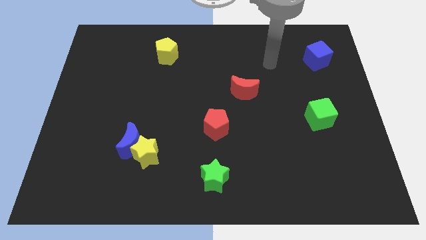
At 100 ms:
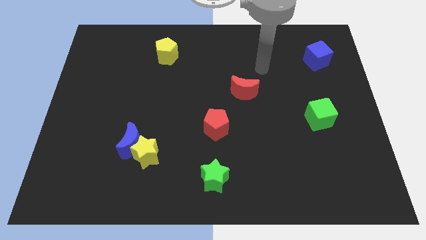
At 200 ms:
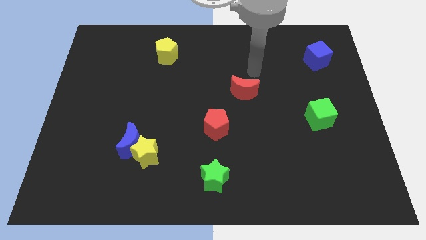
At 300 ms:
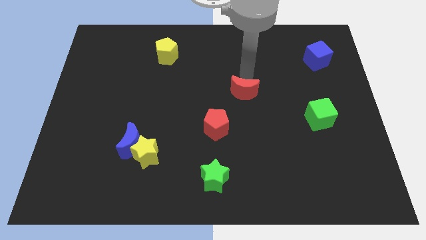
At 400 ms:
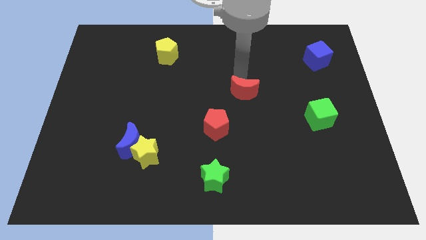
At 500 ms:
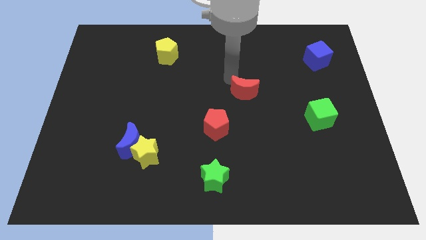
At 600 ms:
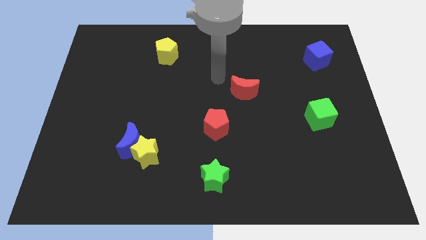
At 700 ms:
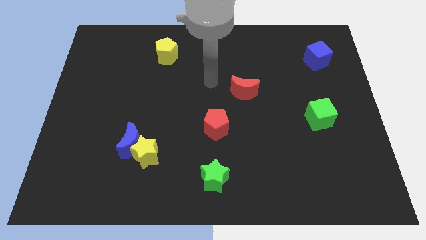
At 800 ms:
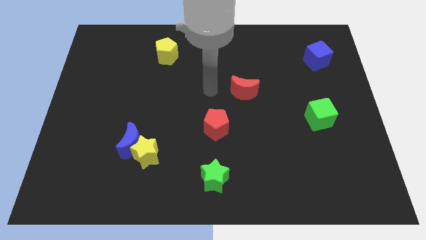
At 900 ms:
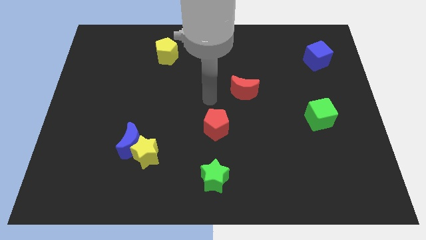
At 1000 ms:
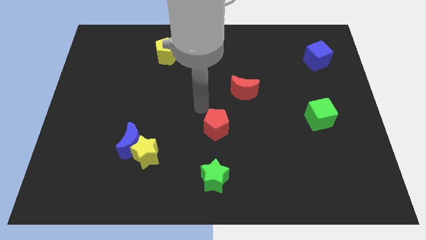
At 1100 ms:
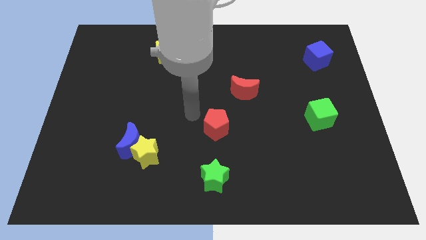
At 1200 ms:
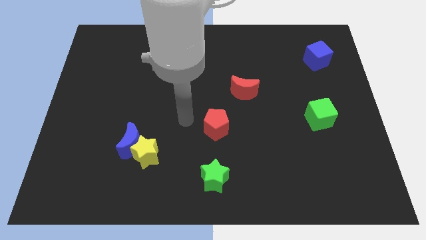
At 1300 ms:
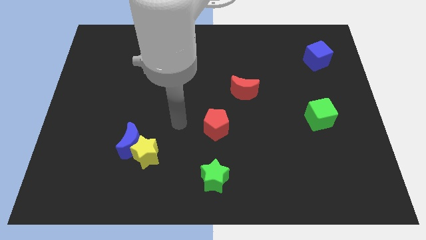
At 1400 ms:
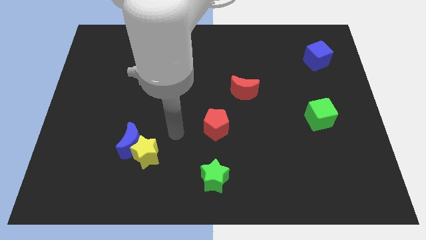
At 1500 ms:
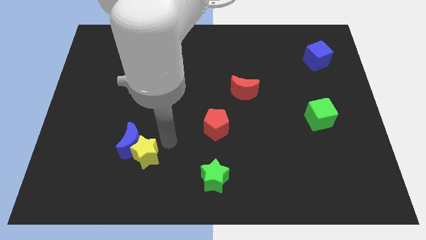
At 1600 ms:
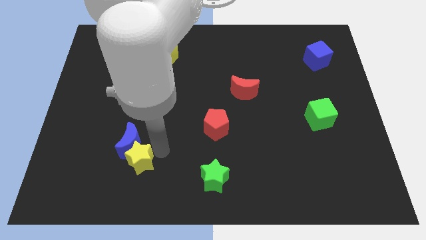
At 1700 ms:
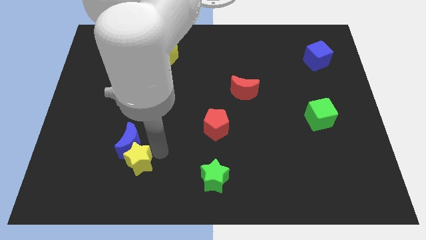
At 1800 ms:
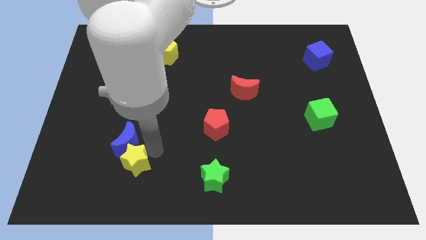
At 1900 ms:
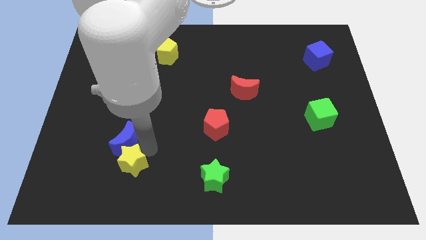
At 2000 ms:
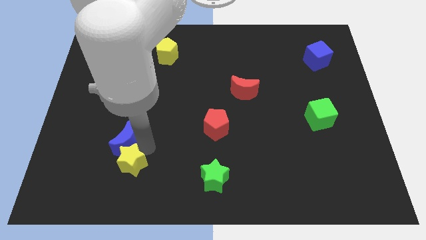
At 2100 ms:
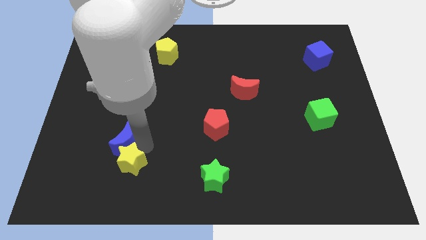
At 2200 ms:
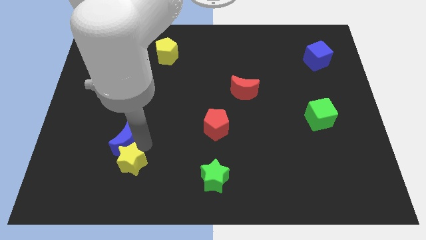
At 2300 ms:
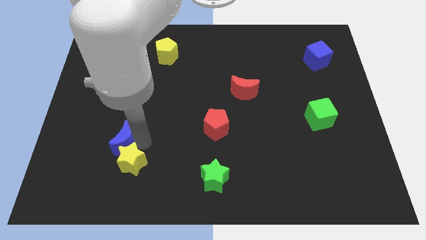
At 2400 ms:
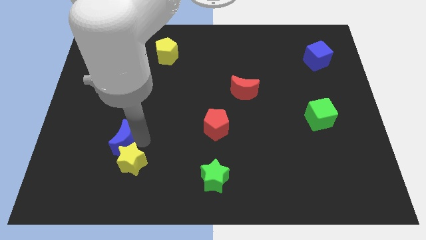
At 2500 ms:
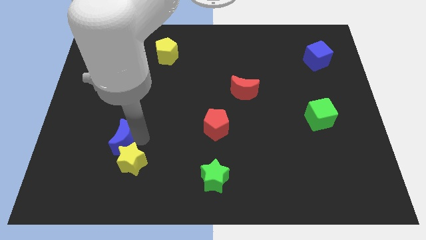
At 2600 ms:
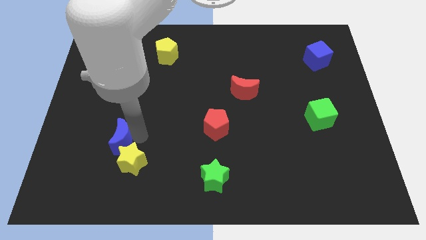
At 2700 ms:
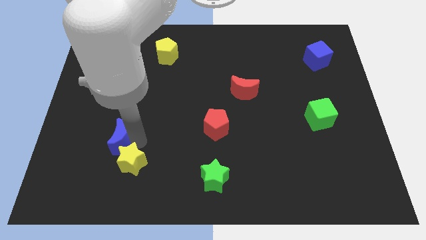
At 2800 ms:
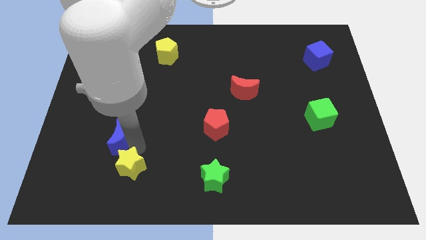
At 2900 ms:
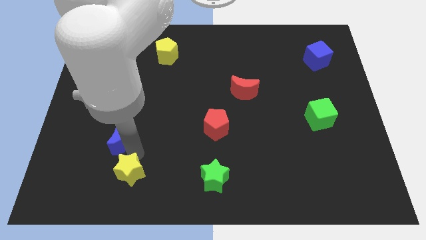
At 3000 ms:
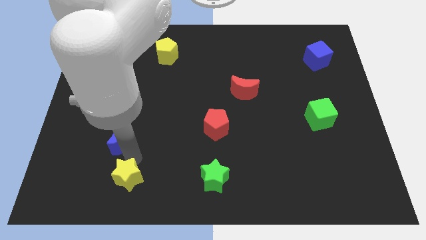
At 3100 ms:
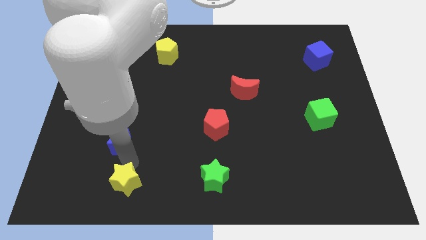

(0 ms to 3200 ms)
move the blue moon away from the yellow star

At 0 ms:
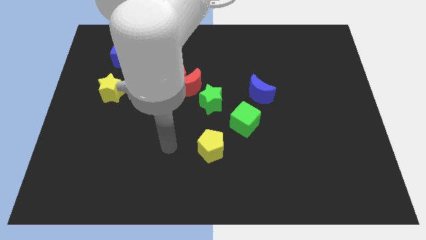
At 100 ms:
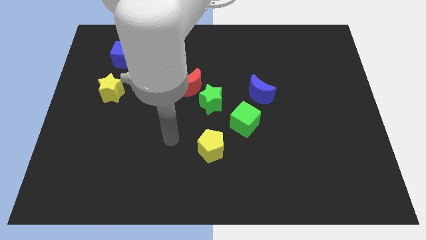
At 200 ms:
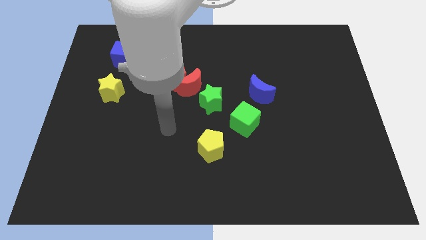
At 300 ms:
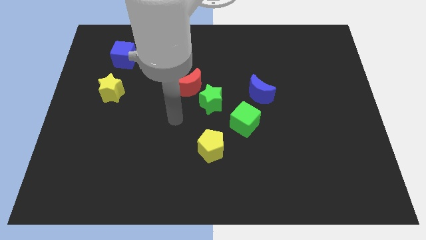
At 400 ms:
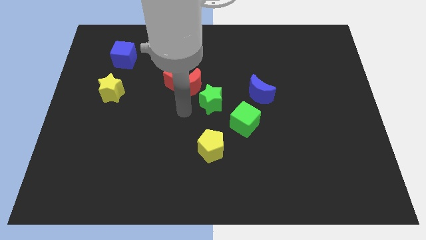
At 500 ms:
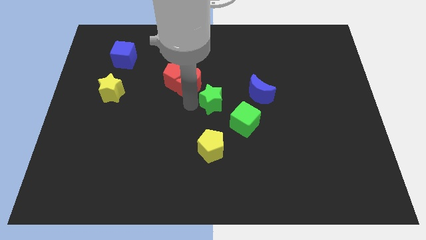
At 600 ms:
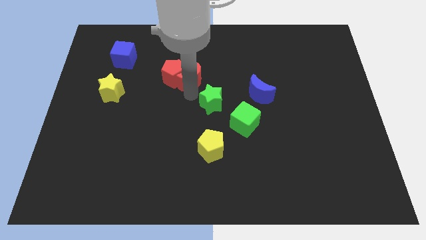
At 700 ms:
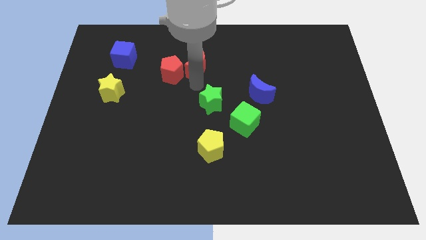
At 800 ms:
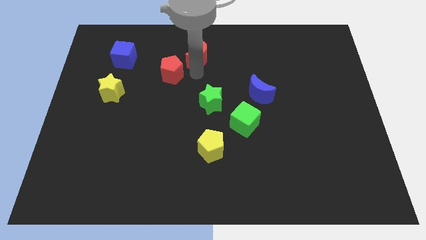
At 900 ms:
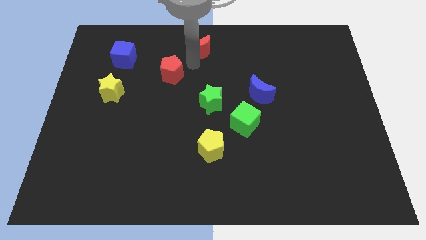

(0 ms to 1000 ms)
pull the red pentagon apart from the red moon

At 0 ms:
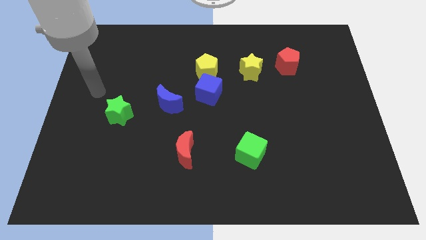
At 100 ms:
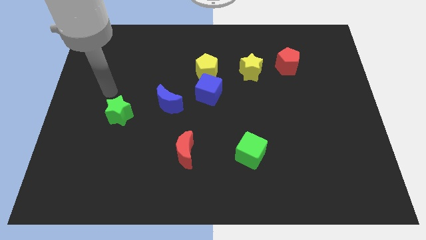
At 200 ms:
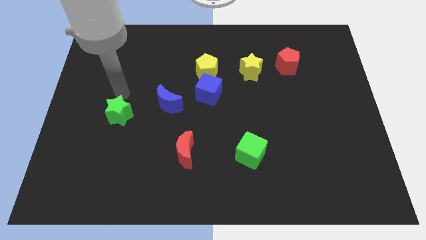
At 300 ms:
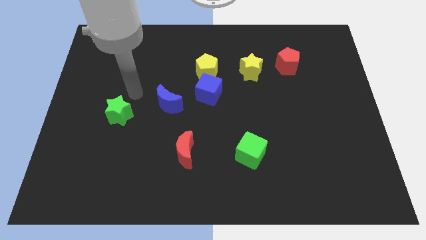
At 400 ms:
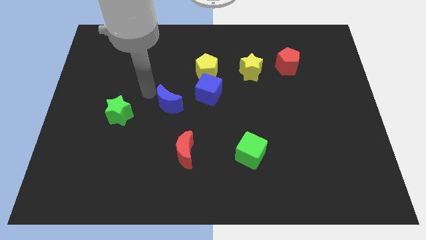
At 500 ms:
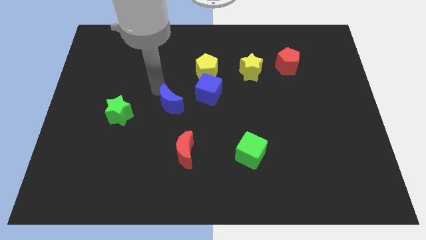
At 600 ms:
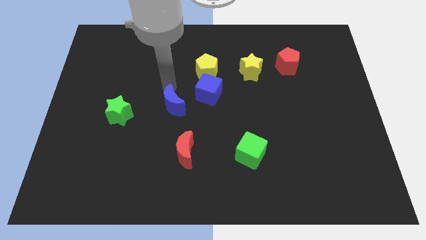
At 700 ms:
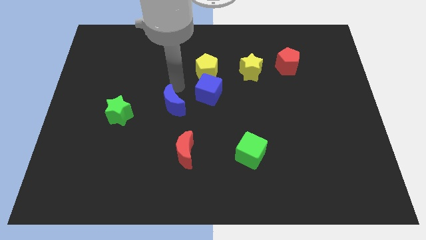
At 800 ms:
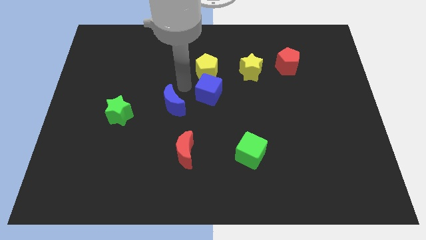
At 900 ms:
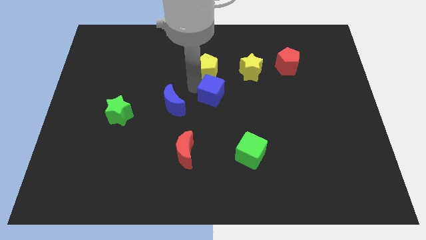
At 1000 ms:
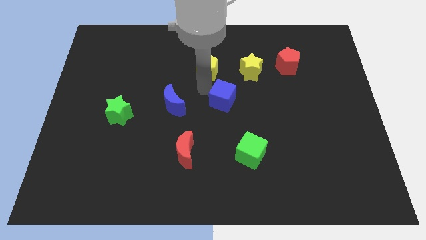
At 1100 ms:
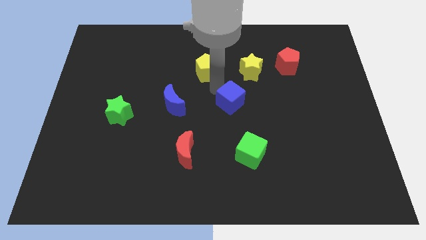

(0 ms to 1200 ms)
separate the yellow pentagon from the blue cube

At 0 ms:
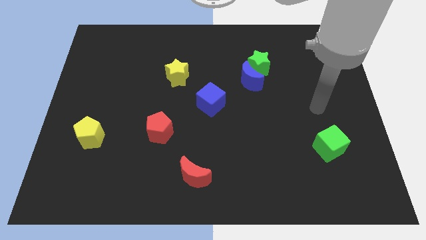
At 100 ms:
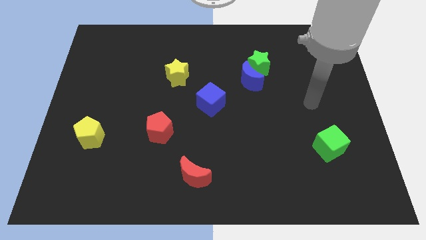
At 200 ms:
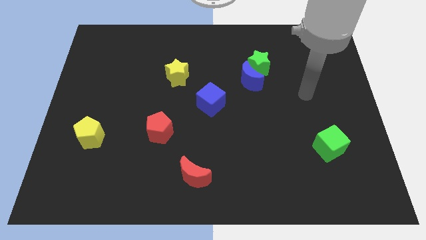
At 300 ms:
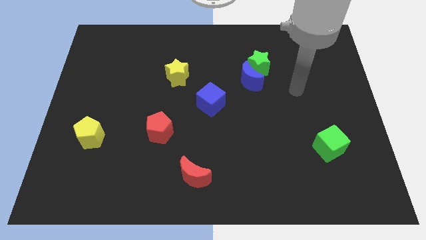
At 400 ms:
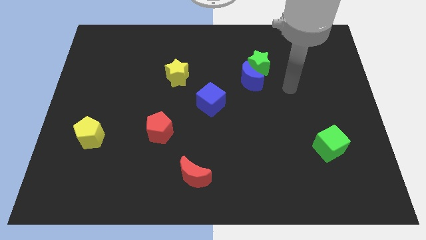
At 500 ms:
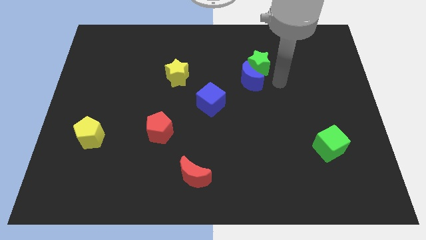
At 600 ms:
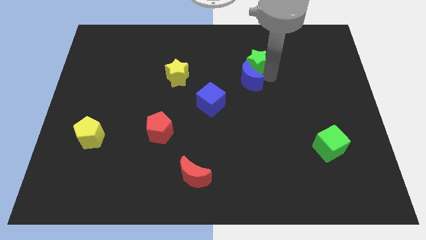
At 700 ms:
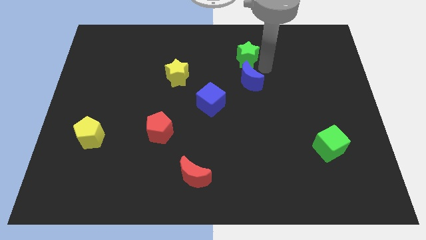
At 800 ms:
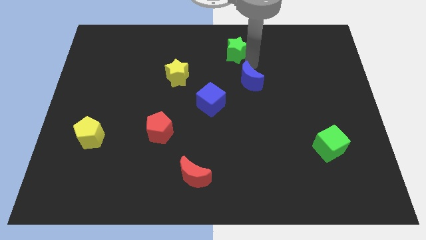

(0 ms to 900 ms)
pull the blue moon apart from the green star

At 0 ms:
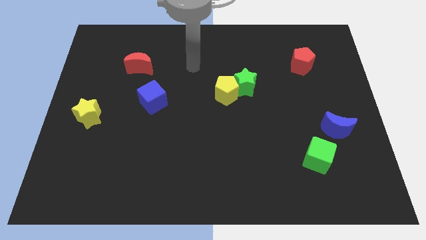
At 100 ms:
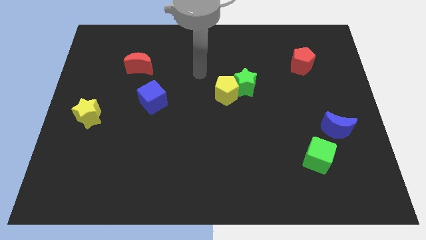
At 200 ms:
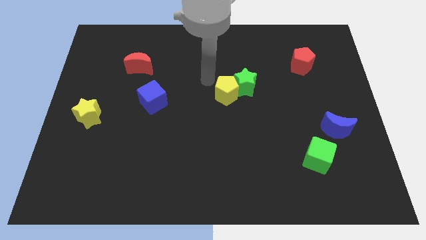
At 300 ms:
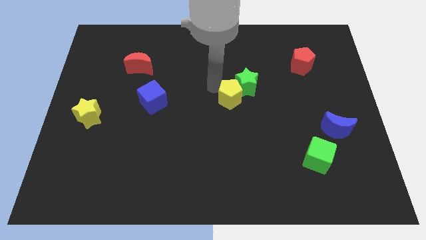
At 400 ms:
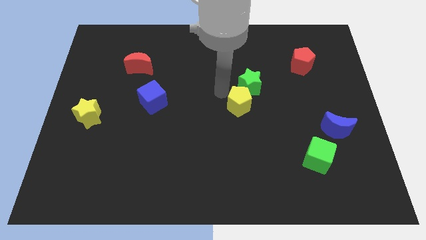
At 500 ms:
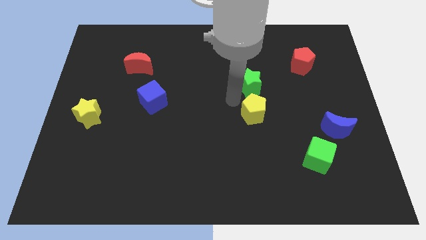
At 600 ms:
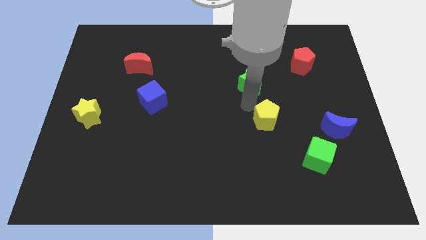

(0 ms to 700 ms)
move the green star away from the yellow pentagon

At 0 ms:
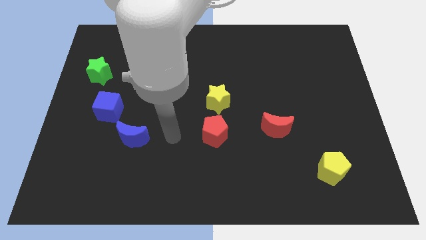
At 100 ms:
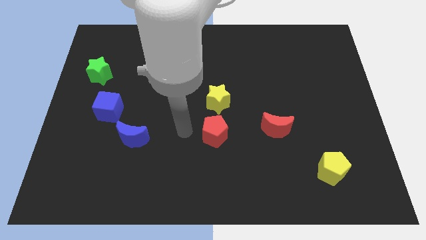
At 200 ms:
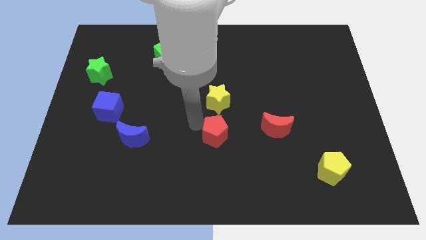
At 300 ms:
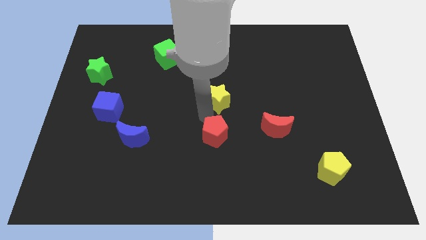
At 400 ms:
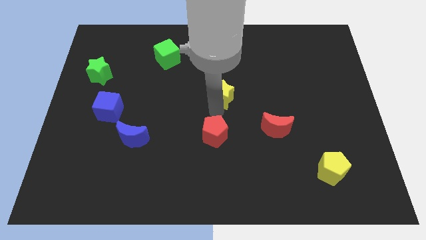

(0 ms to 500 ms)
move the red pentagon away from the yellow star

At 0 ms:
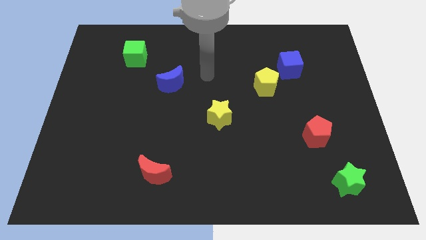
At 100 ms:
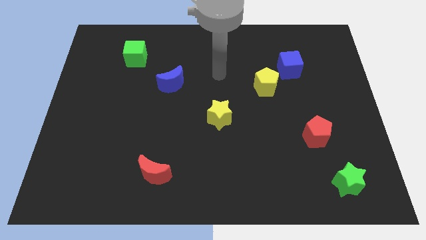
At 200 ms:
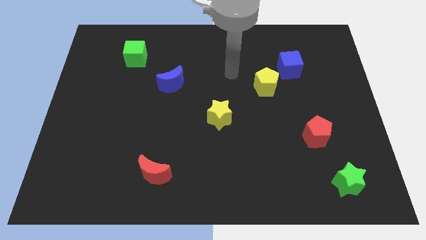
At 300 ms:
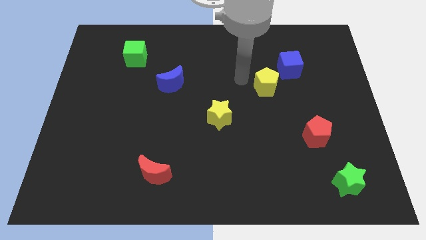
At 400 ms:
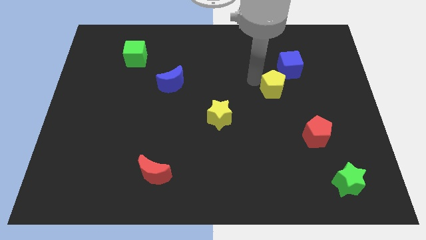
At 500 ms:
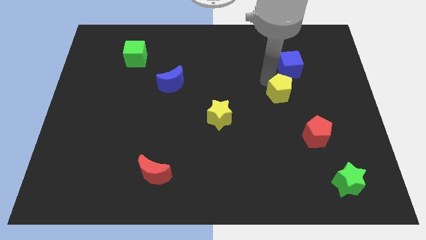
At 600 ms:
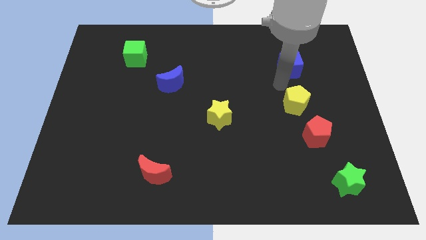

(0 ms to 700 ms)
pull the blue cube apart from the yellow pentagon

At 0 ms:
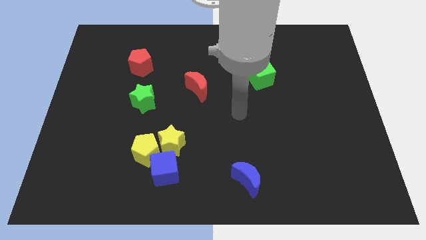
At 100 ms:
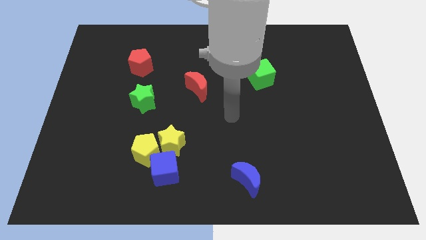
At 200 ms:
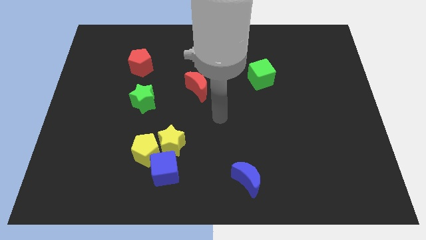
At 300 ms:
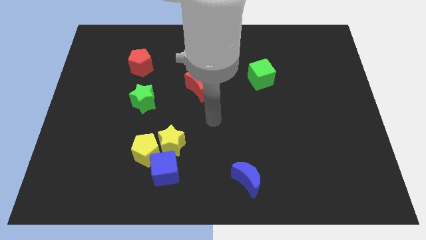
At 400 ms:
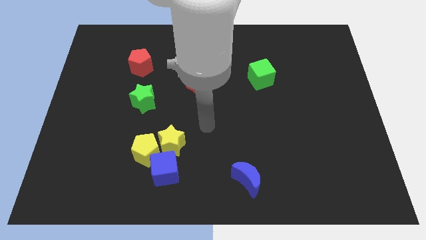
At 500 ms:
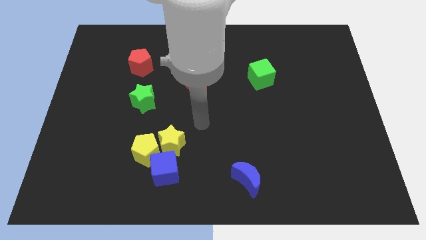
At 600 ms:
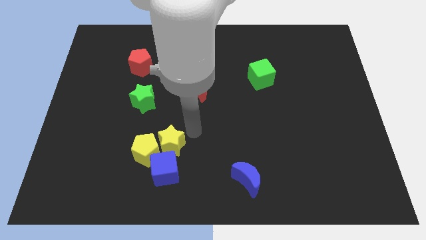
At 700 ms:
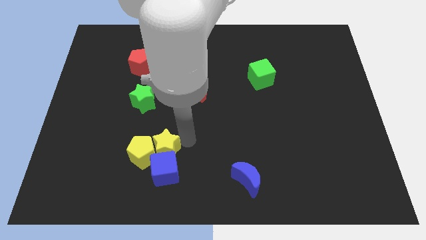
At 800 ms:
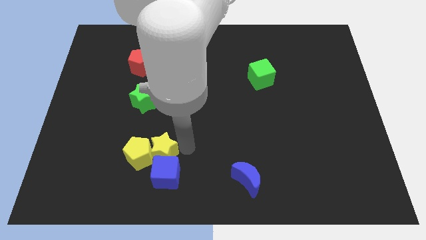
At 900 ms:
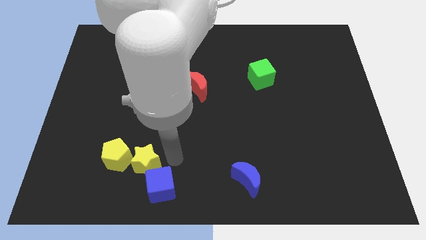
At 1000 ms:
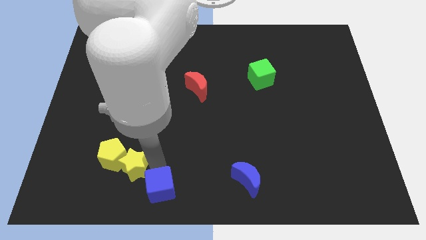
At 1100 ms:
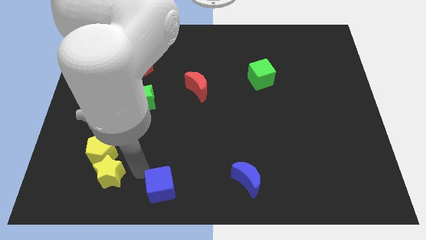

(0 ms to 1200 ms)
pull the yellow pentagon apart from the yellow star and blue cube
